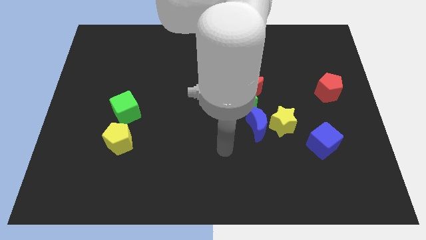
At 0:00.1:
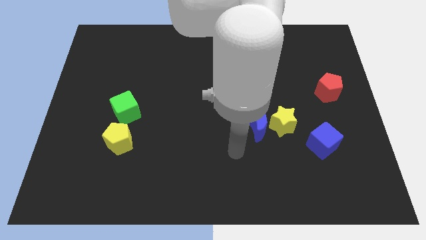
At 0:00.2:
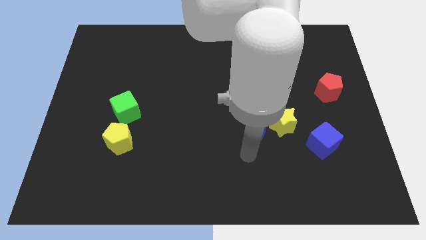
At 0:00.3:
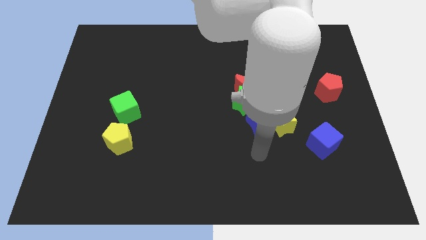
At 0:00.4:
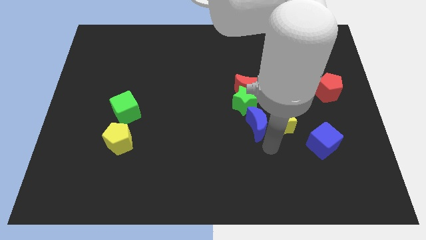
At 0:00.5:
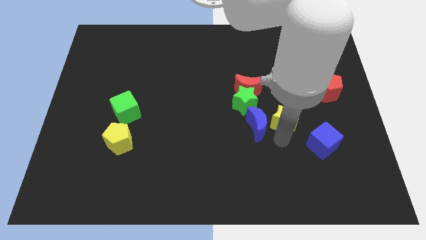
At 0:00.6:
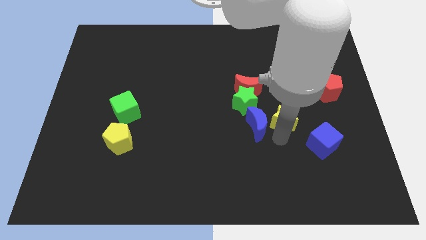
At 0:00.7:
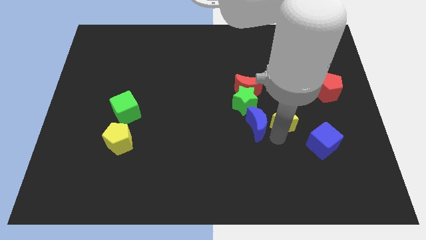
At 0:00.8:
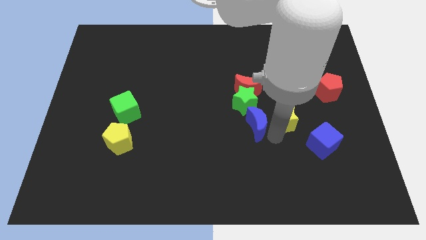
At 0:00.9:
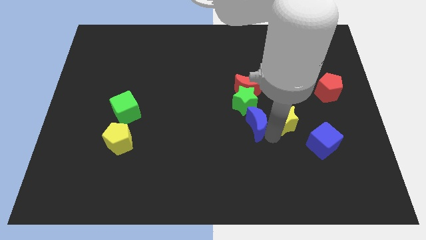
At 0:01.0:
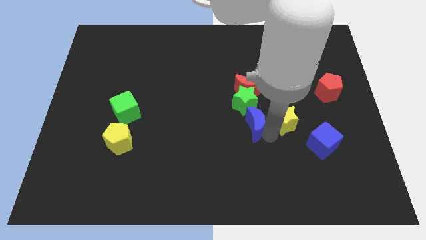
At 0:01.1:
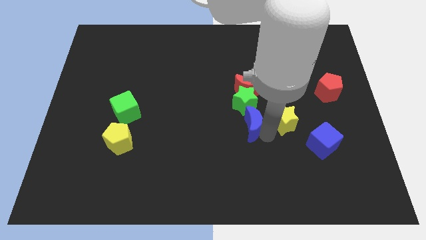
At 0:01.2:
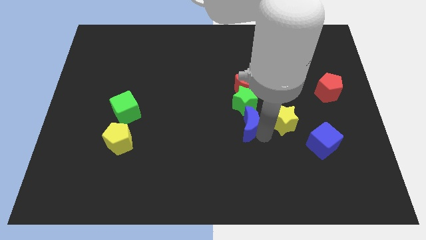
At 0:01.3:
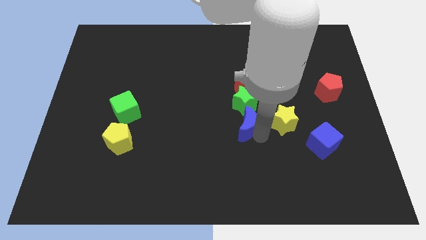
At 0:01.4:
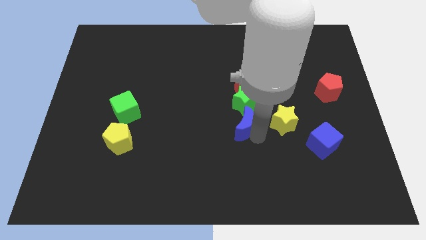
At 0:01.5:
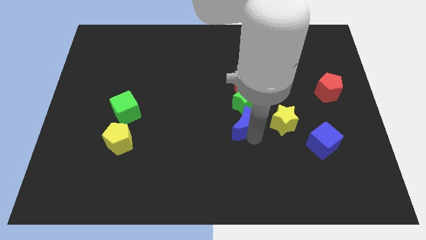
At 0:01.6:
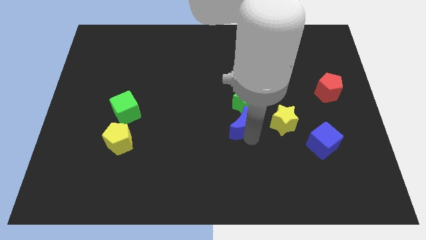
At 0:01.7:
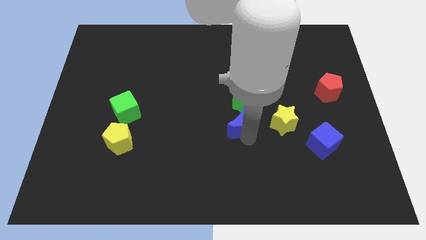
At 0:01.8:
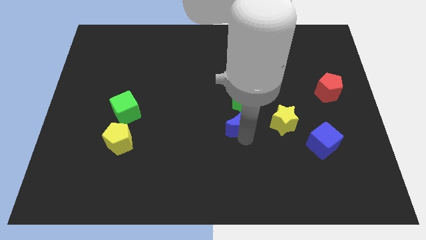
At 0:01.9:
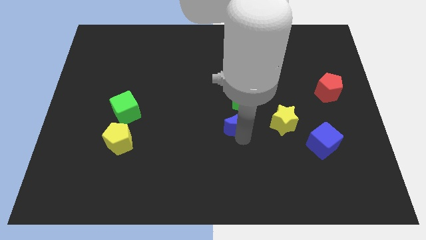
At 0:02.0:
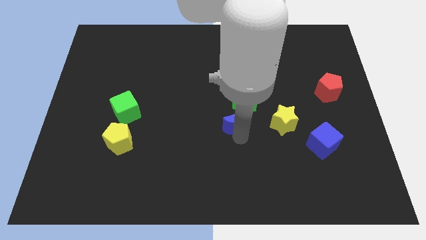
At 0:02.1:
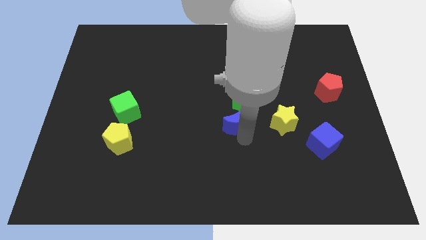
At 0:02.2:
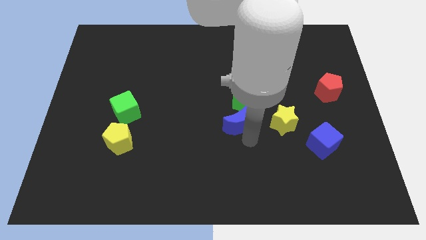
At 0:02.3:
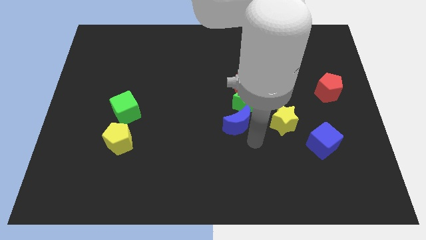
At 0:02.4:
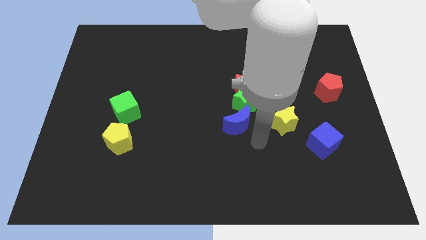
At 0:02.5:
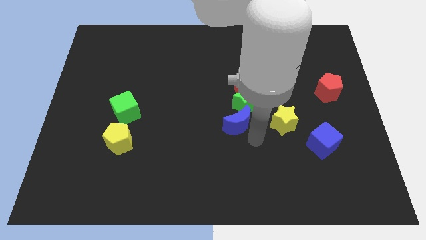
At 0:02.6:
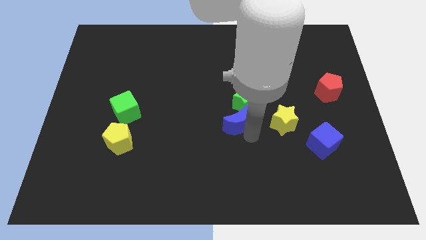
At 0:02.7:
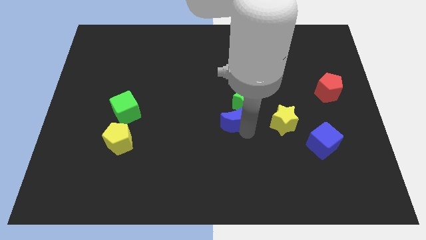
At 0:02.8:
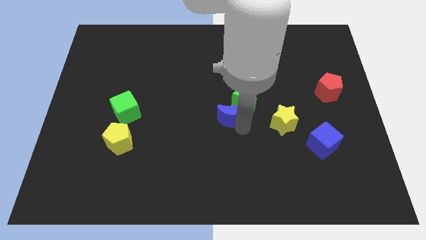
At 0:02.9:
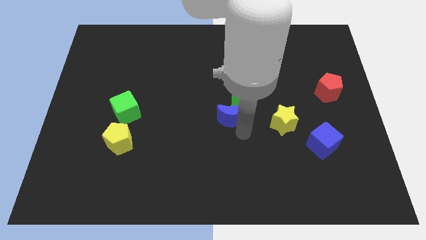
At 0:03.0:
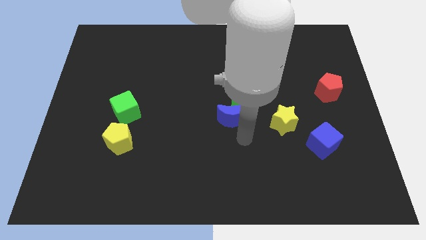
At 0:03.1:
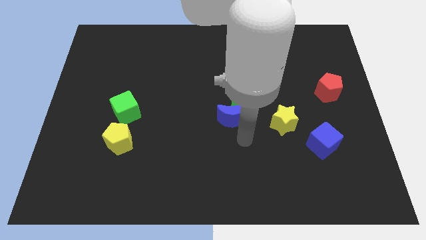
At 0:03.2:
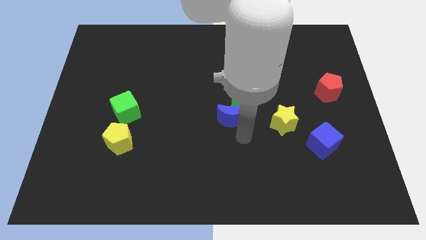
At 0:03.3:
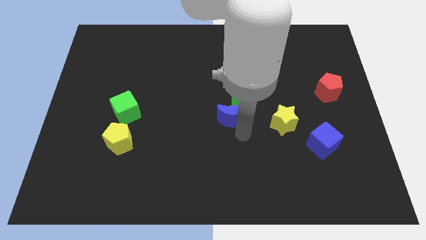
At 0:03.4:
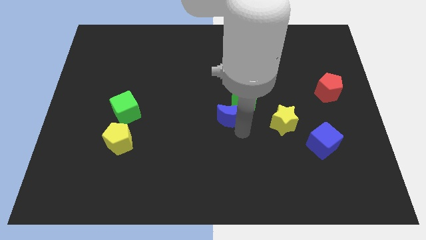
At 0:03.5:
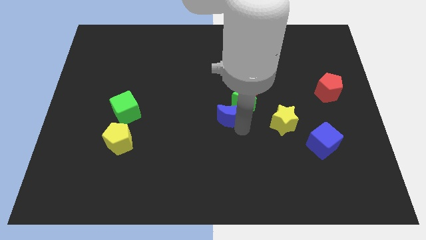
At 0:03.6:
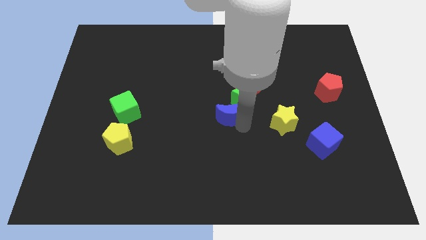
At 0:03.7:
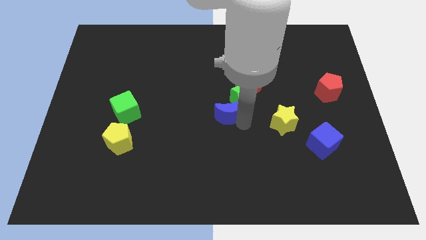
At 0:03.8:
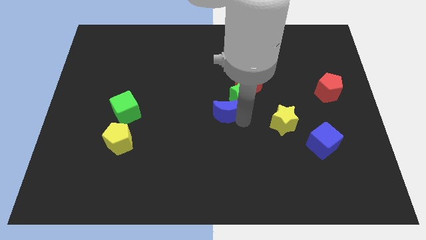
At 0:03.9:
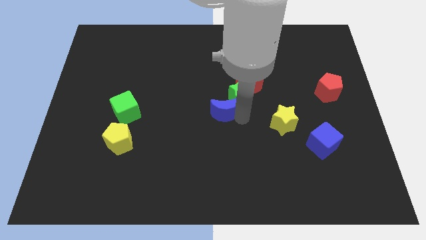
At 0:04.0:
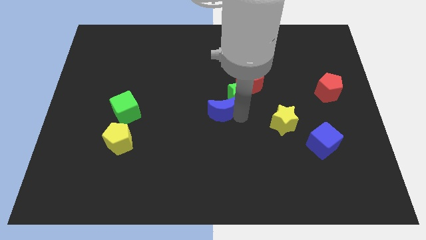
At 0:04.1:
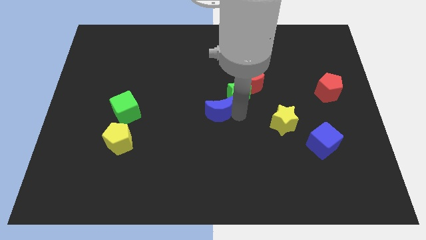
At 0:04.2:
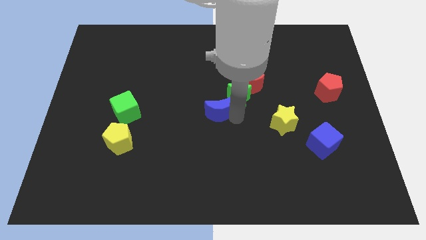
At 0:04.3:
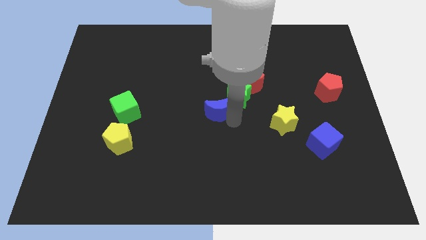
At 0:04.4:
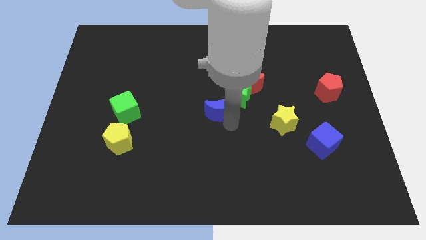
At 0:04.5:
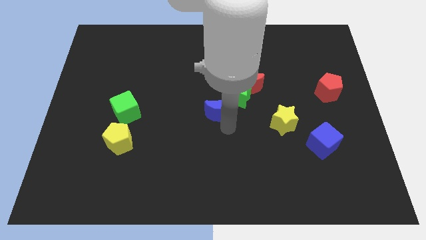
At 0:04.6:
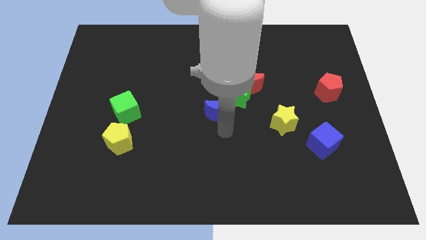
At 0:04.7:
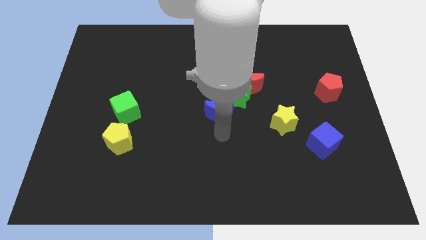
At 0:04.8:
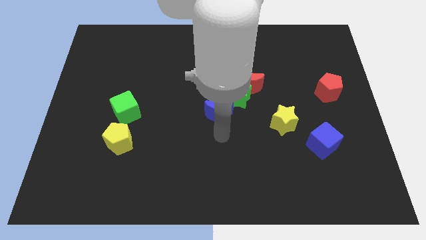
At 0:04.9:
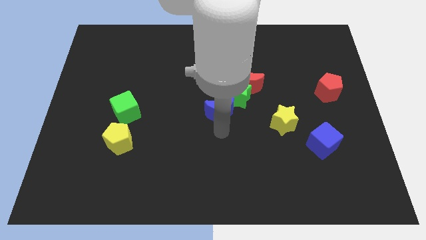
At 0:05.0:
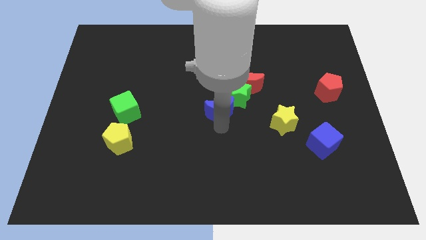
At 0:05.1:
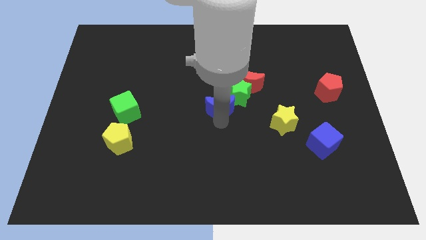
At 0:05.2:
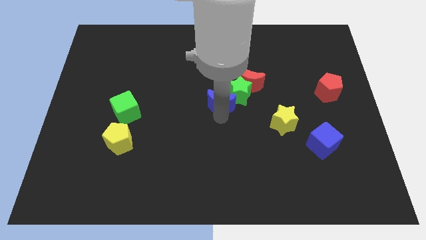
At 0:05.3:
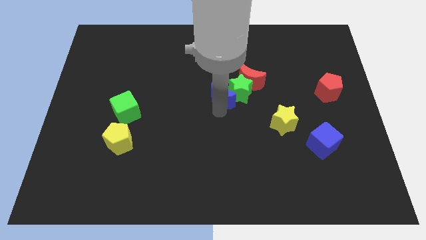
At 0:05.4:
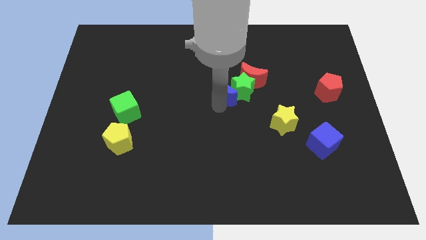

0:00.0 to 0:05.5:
push the blue moon a little upwards

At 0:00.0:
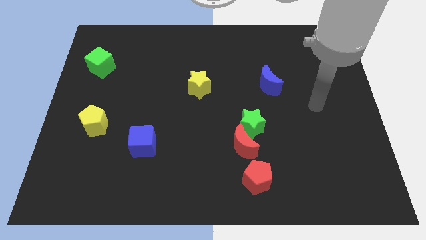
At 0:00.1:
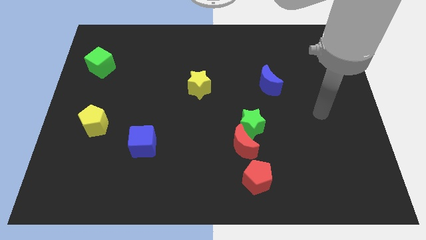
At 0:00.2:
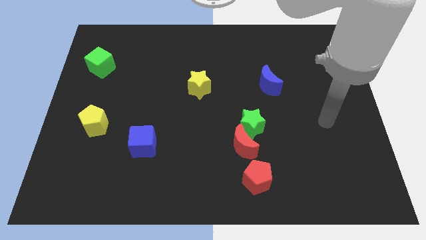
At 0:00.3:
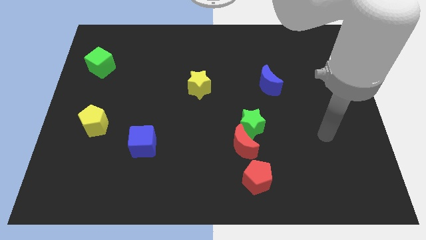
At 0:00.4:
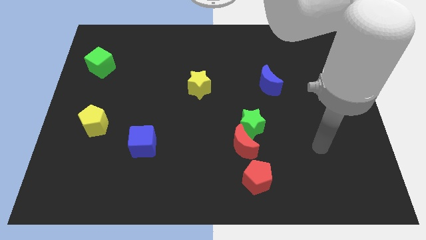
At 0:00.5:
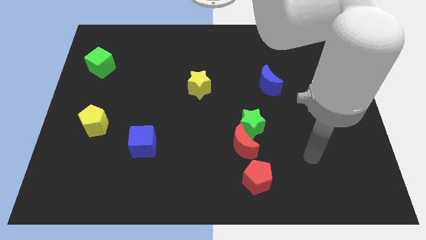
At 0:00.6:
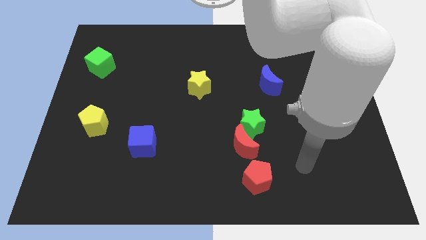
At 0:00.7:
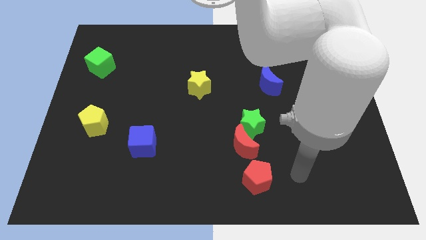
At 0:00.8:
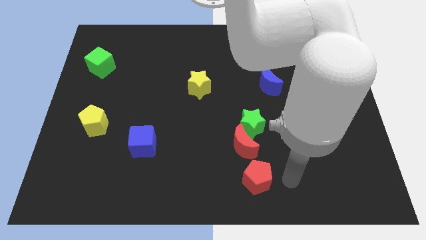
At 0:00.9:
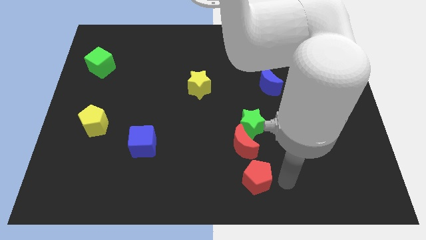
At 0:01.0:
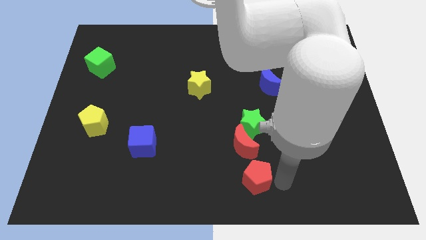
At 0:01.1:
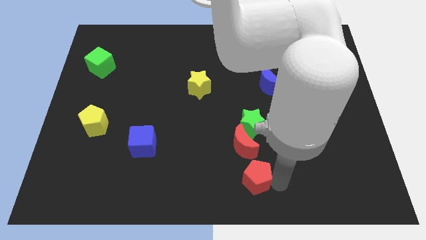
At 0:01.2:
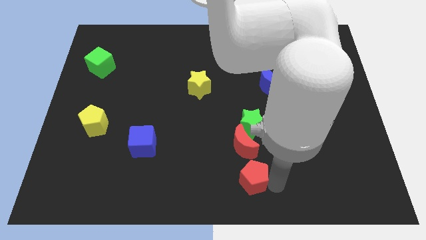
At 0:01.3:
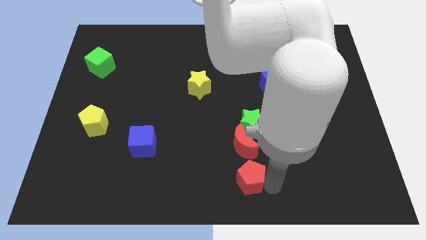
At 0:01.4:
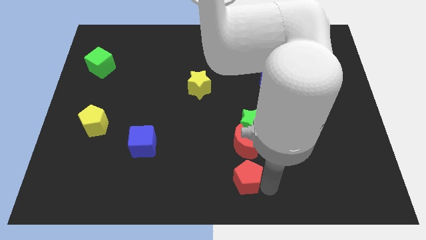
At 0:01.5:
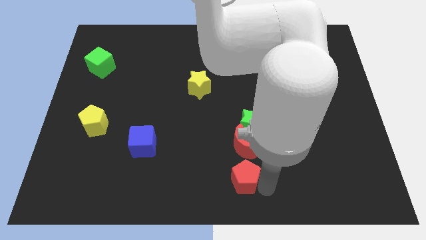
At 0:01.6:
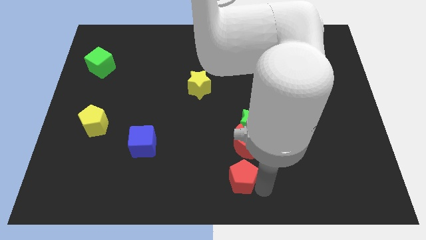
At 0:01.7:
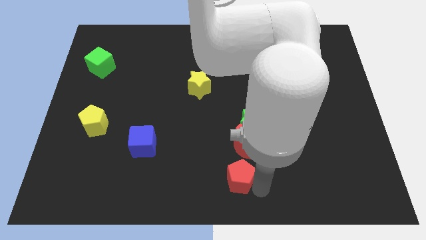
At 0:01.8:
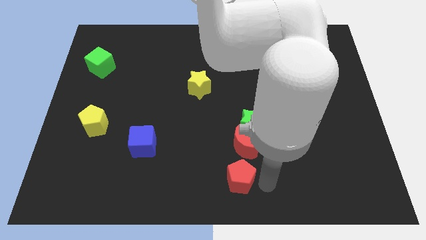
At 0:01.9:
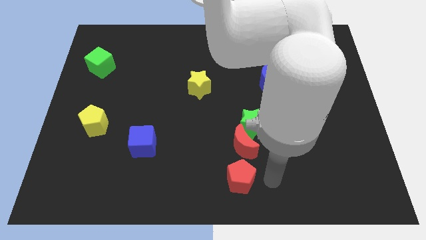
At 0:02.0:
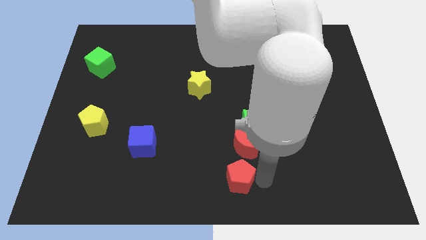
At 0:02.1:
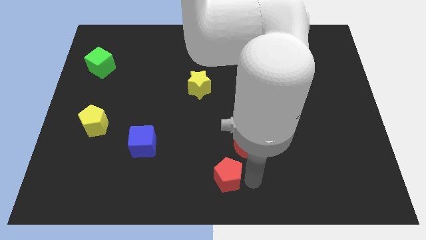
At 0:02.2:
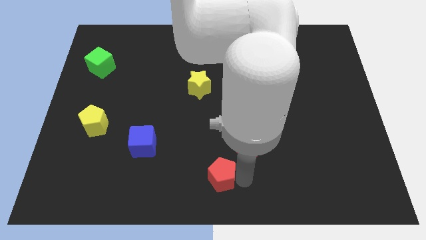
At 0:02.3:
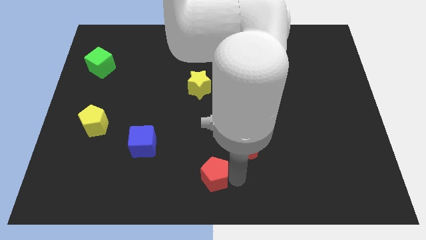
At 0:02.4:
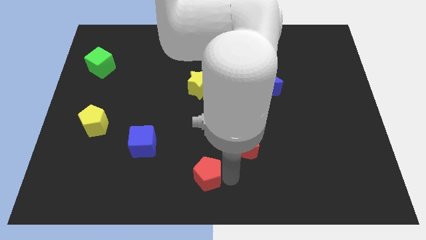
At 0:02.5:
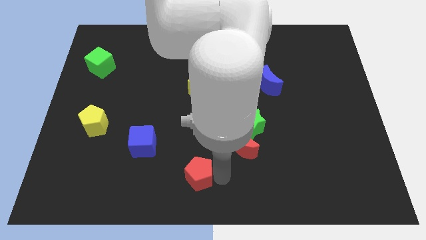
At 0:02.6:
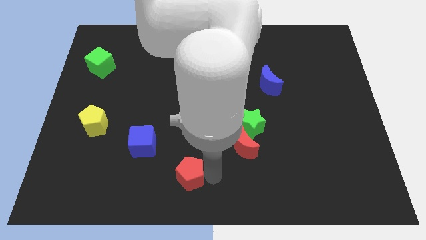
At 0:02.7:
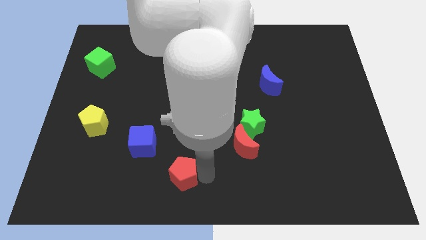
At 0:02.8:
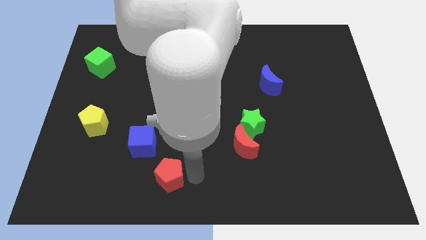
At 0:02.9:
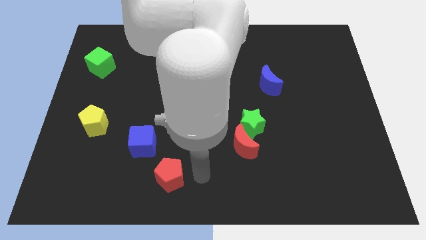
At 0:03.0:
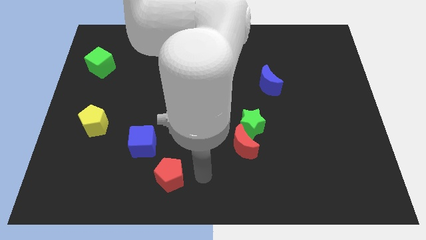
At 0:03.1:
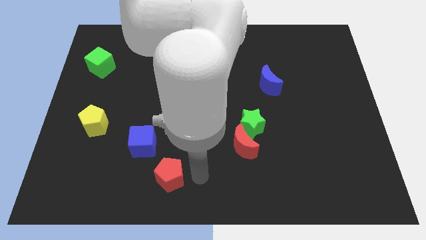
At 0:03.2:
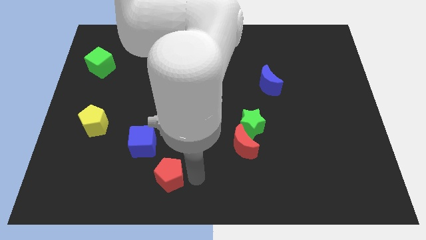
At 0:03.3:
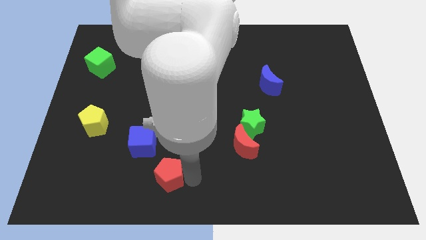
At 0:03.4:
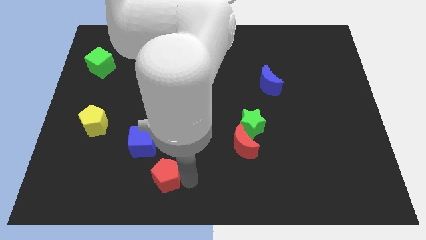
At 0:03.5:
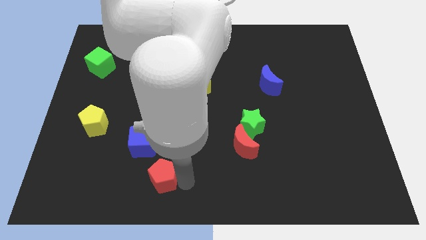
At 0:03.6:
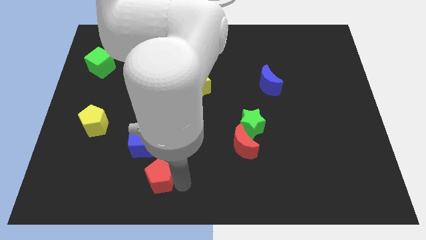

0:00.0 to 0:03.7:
slide the red pentagon left
